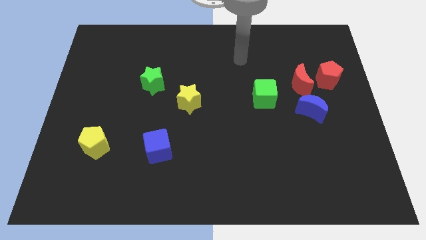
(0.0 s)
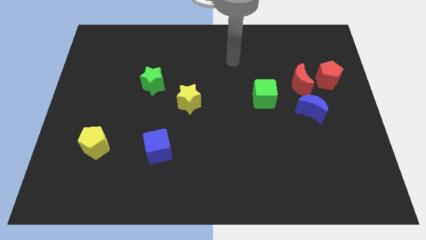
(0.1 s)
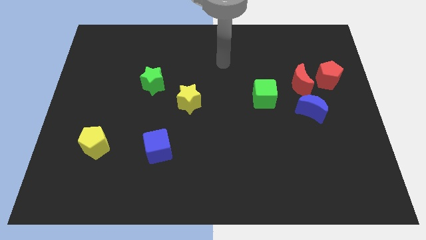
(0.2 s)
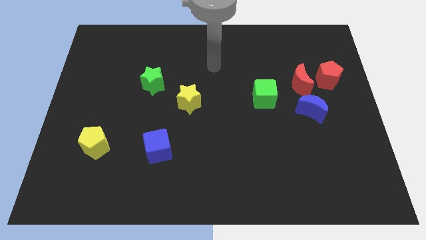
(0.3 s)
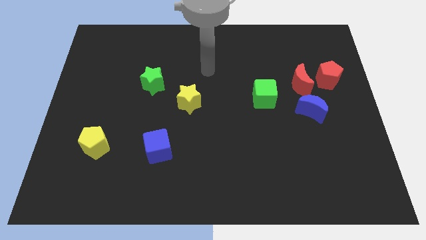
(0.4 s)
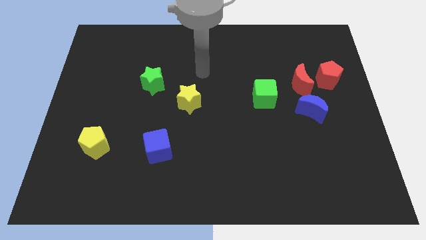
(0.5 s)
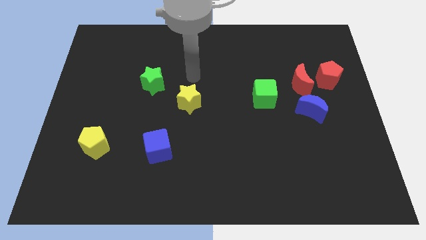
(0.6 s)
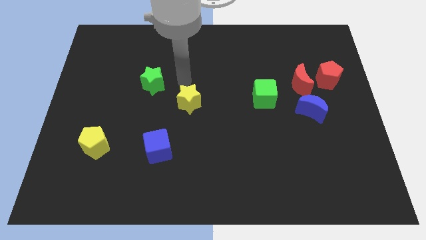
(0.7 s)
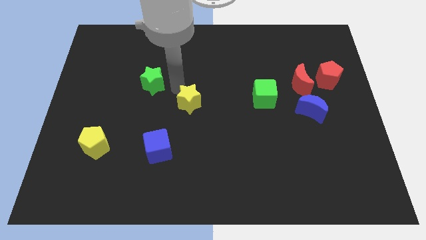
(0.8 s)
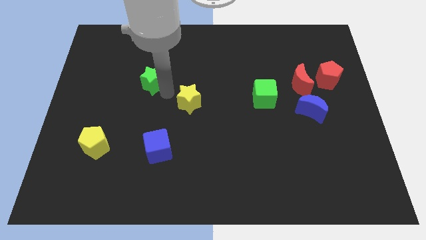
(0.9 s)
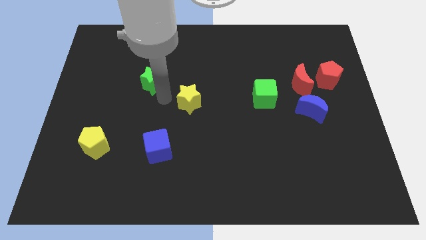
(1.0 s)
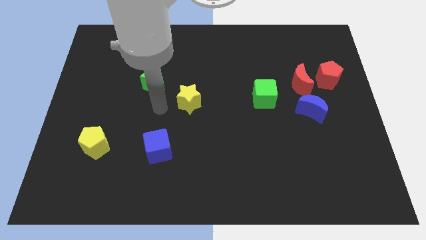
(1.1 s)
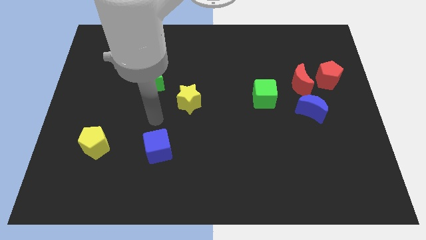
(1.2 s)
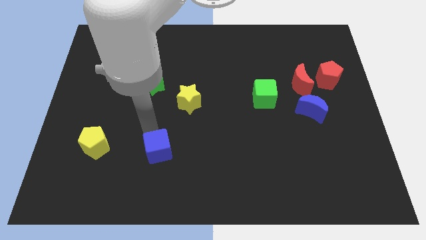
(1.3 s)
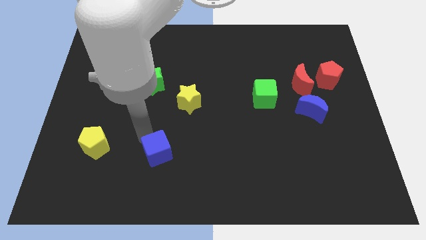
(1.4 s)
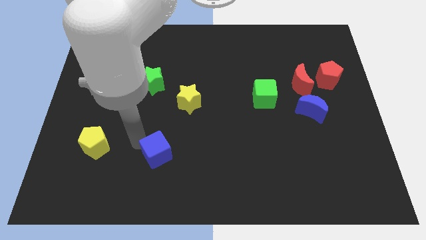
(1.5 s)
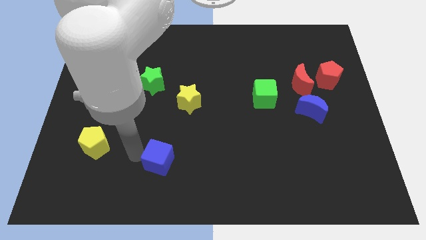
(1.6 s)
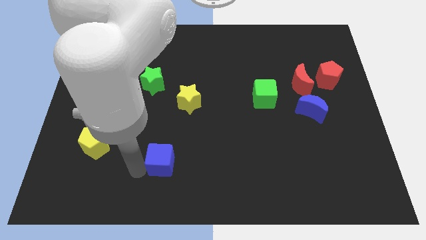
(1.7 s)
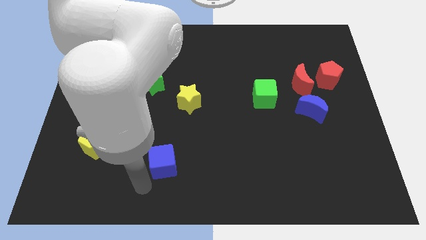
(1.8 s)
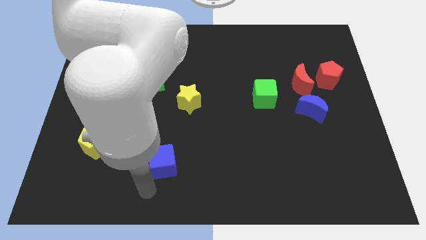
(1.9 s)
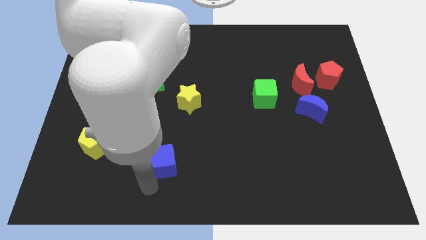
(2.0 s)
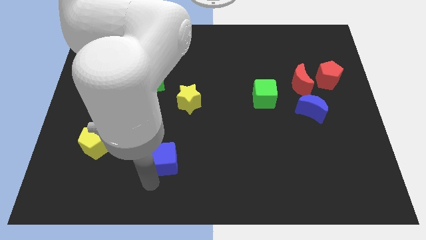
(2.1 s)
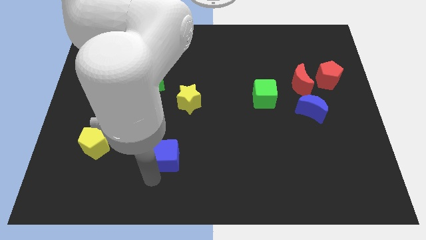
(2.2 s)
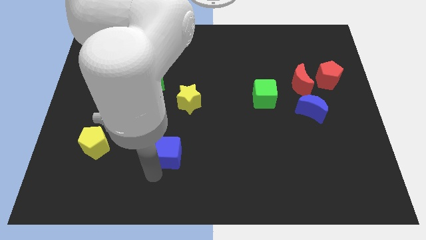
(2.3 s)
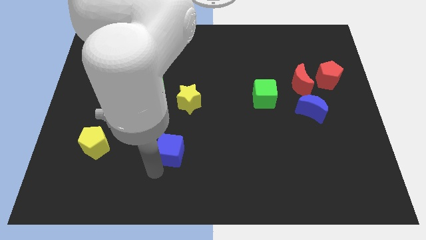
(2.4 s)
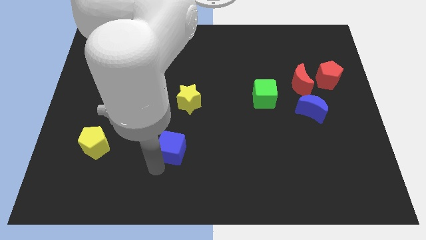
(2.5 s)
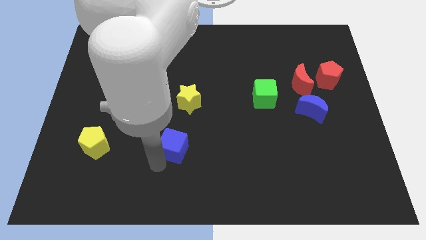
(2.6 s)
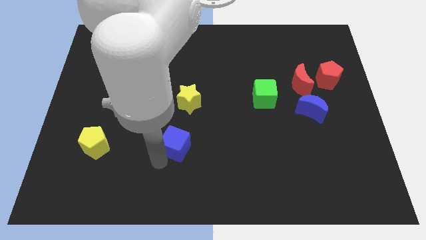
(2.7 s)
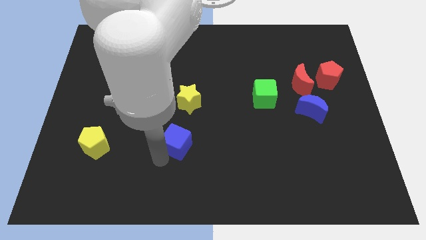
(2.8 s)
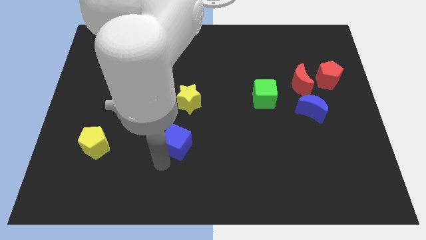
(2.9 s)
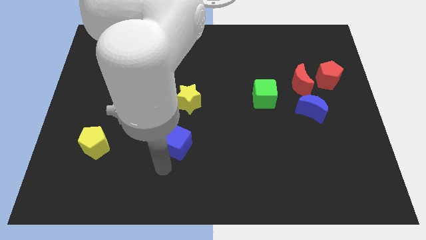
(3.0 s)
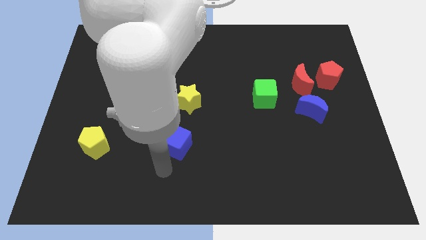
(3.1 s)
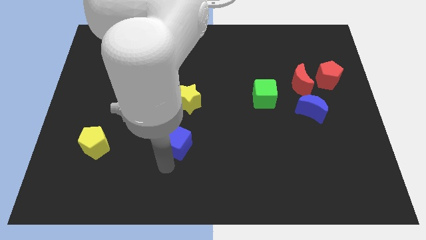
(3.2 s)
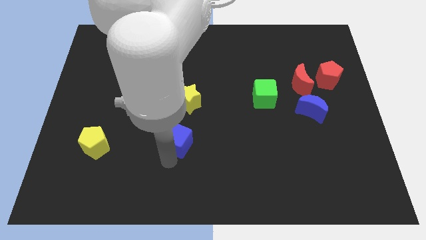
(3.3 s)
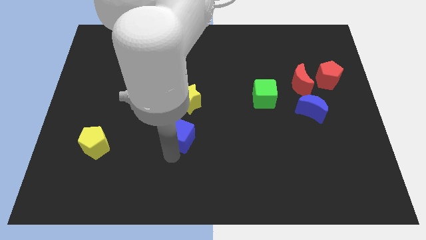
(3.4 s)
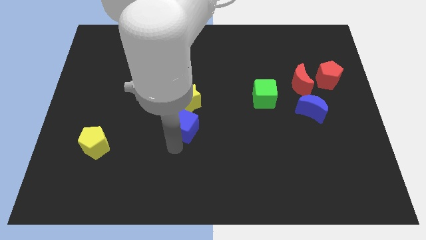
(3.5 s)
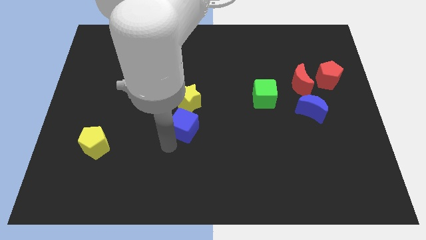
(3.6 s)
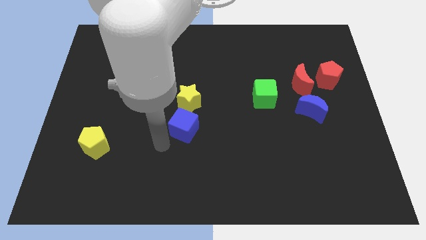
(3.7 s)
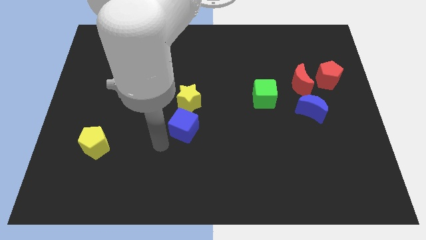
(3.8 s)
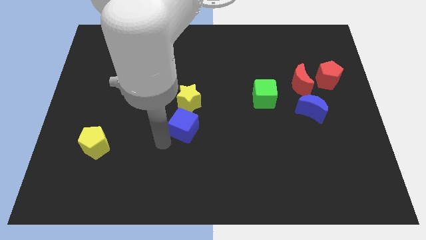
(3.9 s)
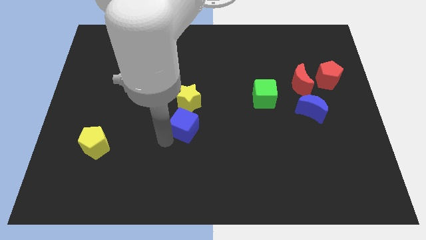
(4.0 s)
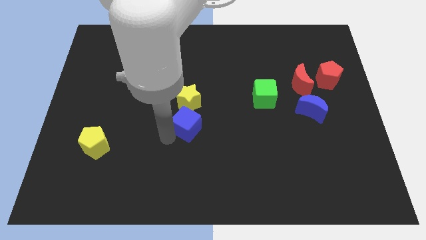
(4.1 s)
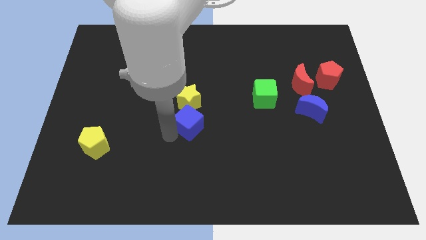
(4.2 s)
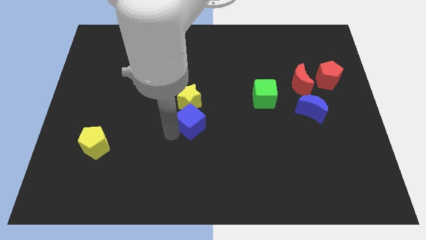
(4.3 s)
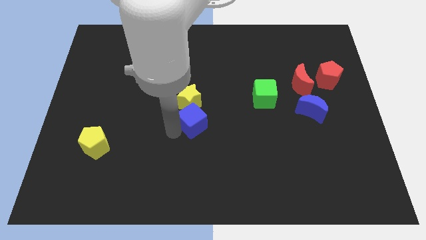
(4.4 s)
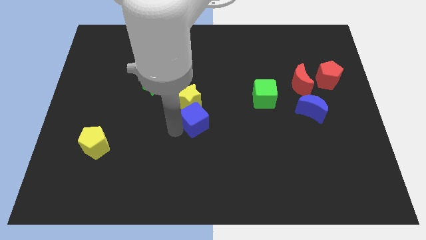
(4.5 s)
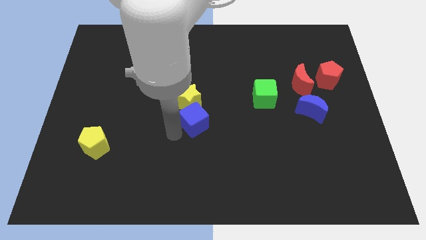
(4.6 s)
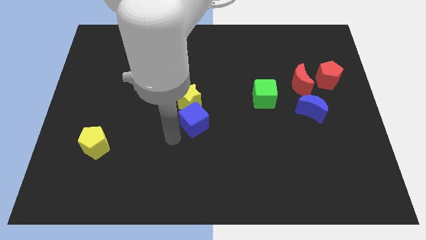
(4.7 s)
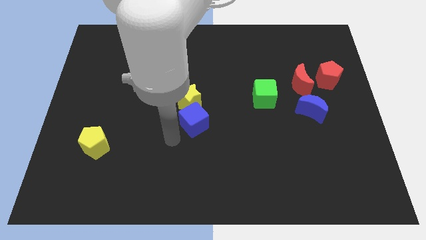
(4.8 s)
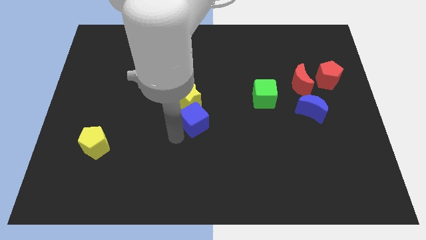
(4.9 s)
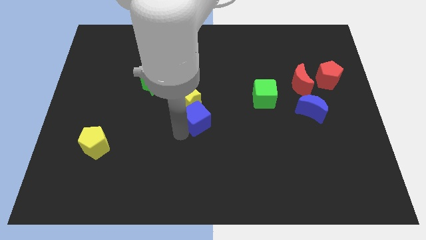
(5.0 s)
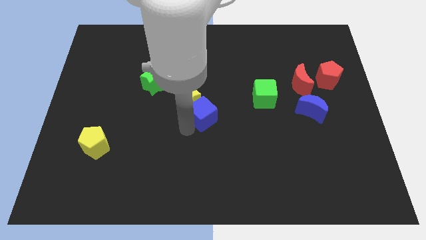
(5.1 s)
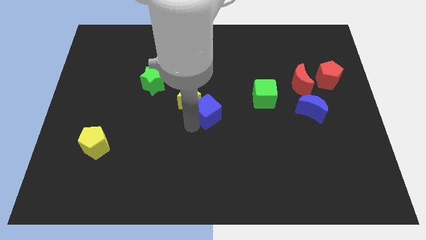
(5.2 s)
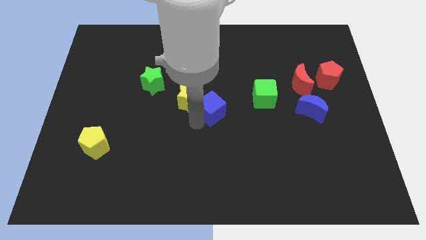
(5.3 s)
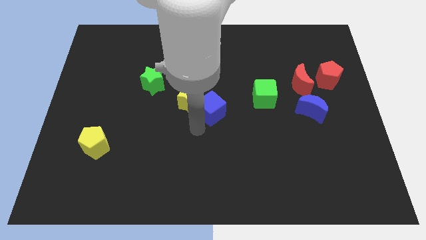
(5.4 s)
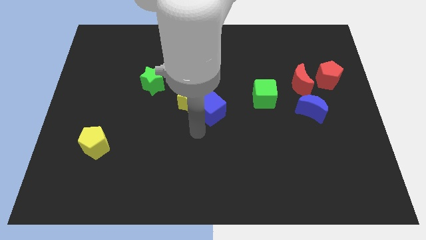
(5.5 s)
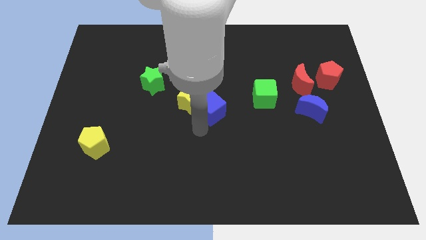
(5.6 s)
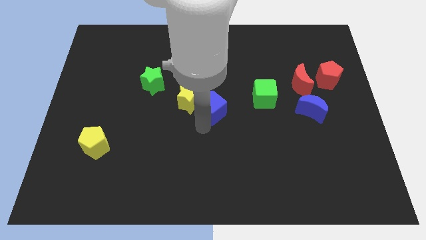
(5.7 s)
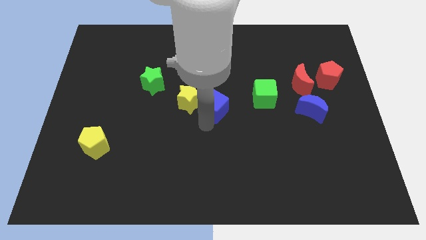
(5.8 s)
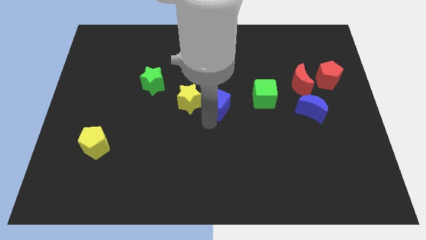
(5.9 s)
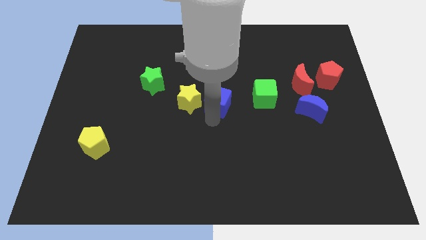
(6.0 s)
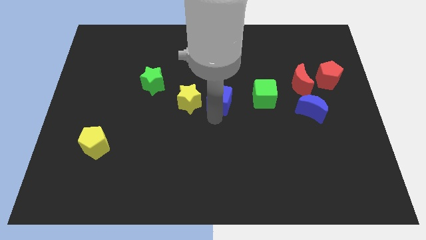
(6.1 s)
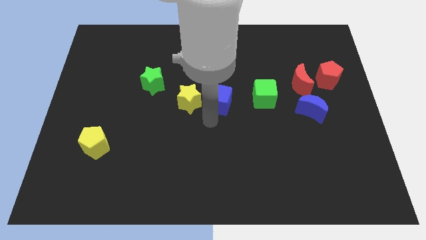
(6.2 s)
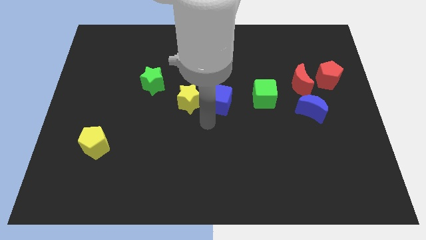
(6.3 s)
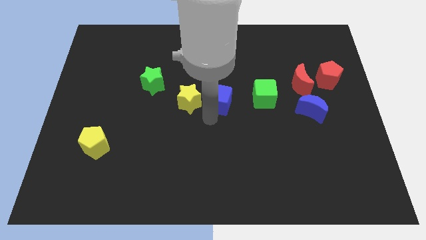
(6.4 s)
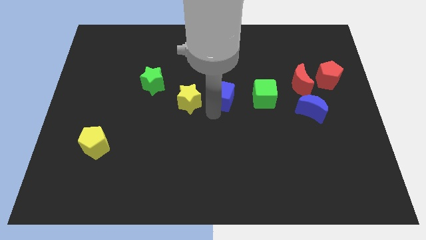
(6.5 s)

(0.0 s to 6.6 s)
push the blue cube diagonally upwards and right

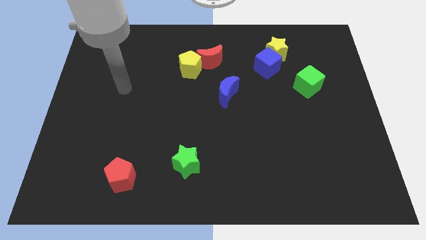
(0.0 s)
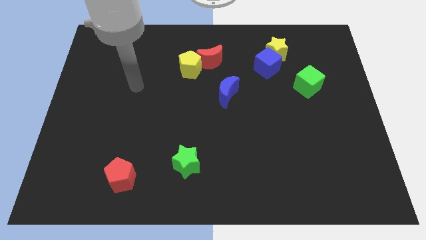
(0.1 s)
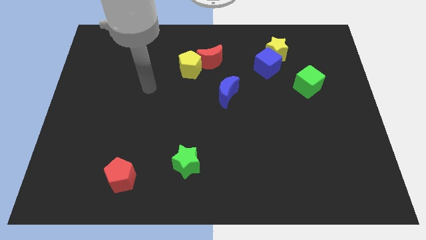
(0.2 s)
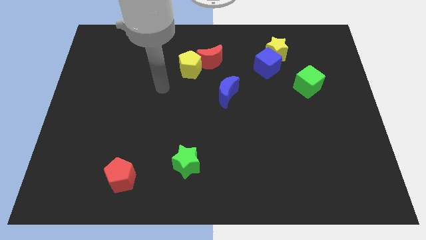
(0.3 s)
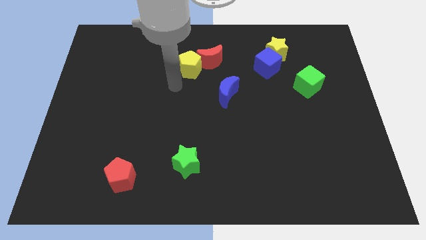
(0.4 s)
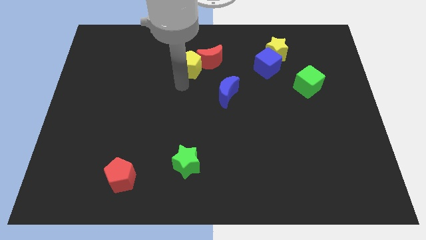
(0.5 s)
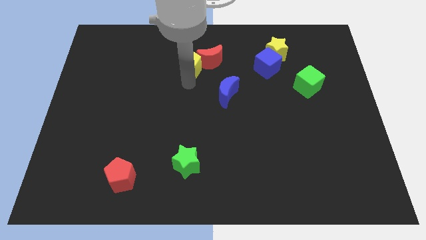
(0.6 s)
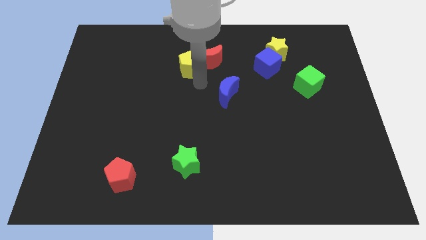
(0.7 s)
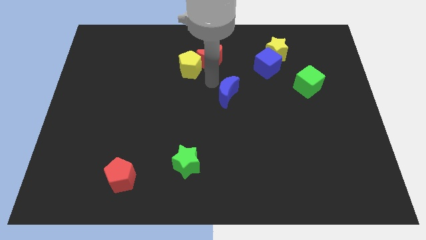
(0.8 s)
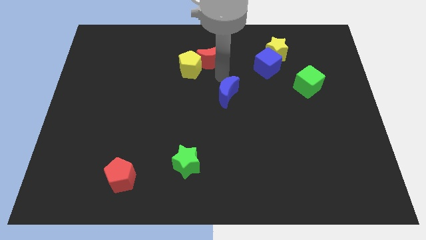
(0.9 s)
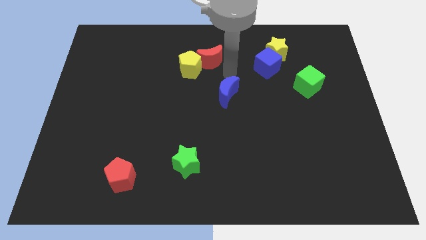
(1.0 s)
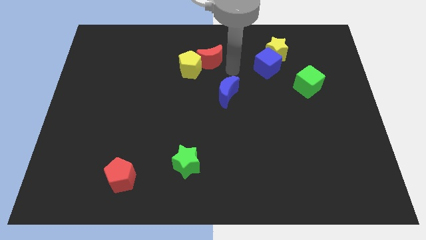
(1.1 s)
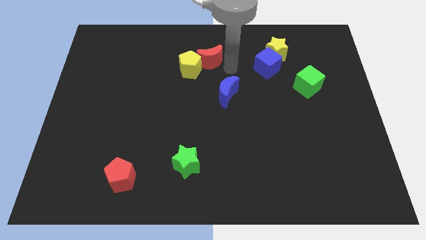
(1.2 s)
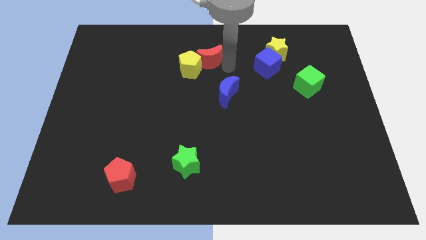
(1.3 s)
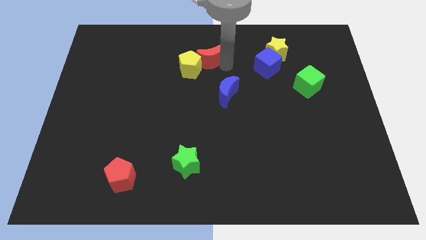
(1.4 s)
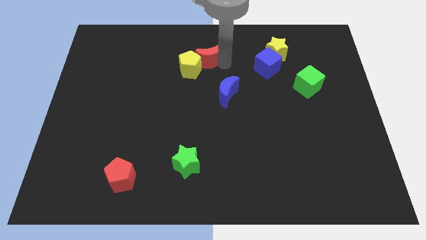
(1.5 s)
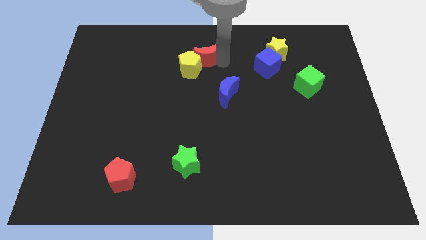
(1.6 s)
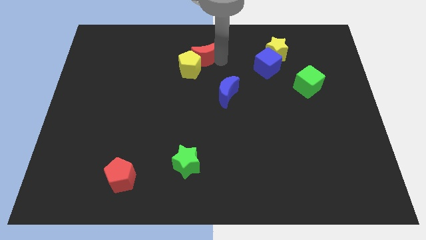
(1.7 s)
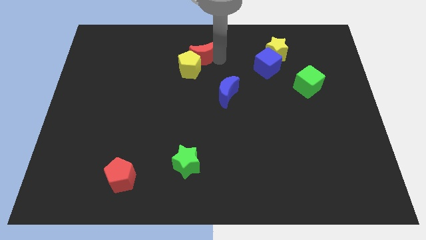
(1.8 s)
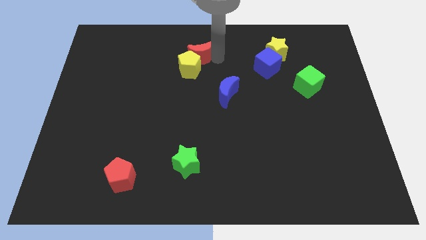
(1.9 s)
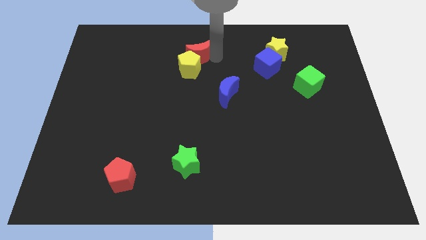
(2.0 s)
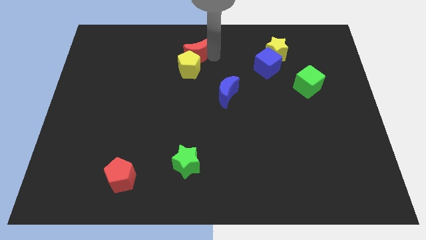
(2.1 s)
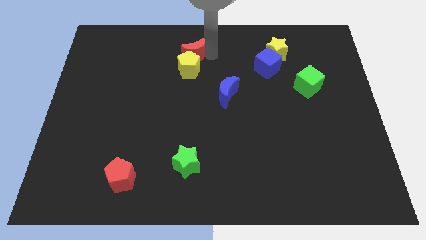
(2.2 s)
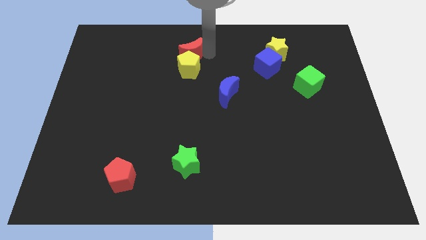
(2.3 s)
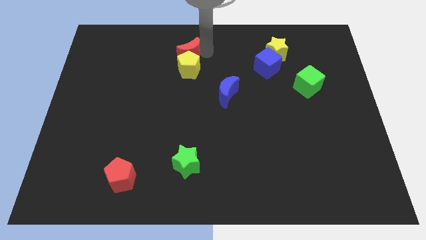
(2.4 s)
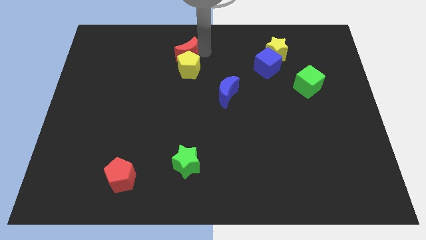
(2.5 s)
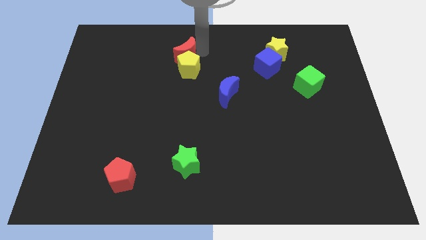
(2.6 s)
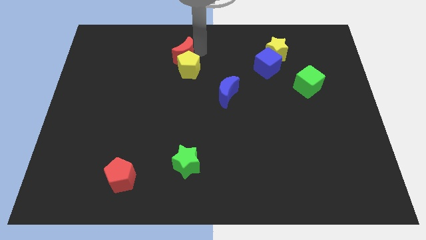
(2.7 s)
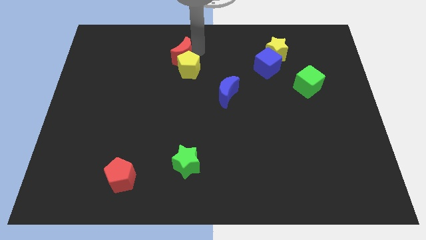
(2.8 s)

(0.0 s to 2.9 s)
move the red moon left slightly
